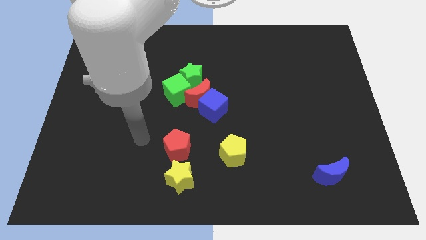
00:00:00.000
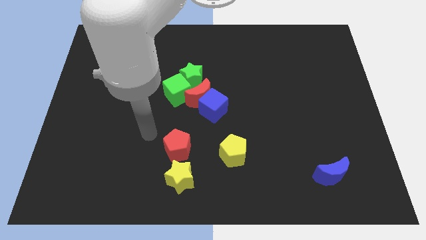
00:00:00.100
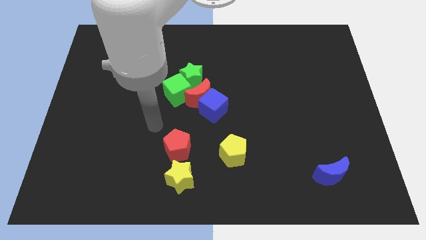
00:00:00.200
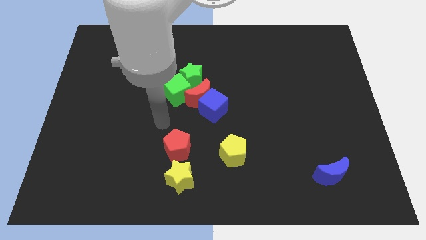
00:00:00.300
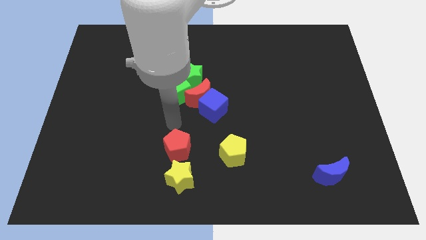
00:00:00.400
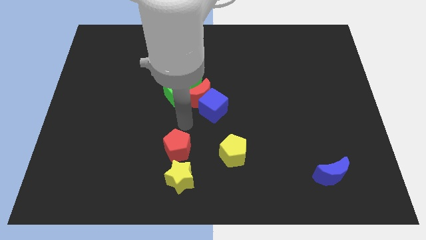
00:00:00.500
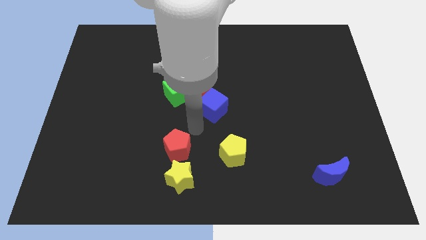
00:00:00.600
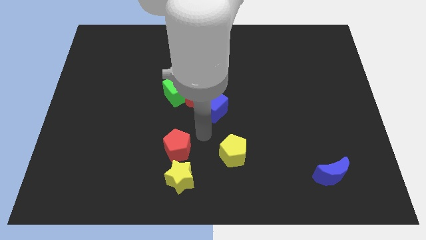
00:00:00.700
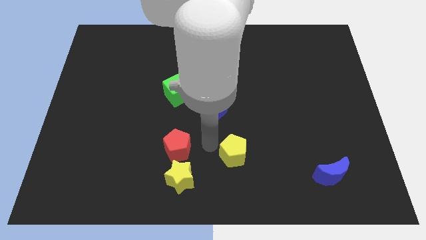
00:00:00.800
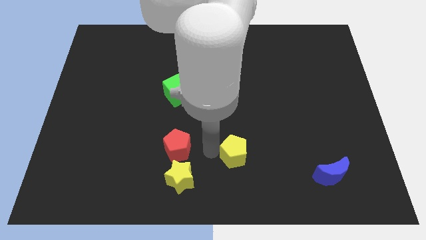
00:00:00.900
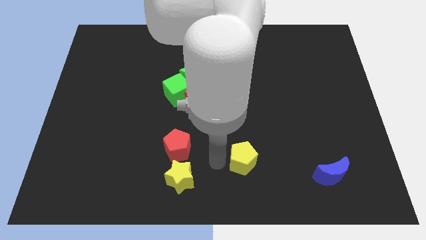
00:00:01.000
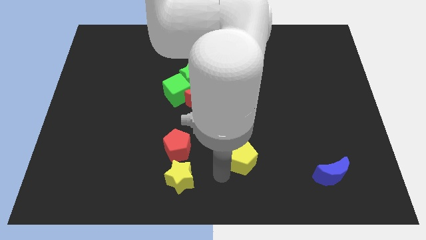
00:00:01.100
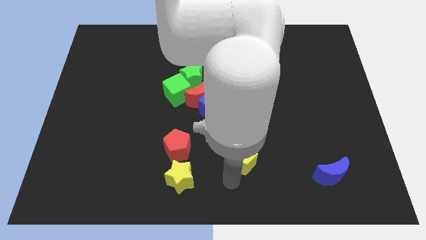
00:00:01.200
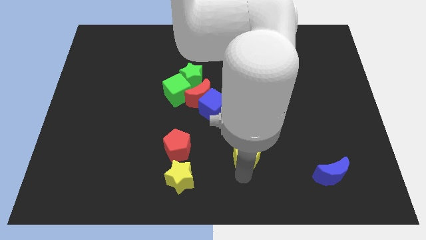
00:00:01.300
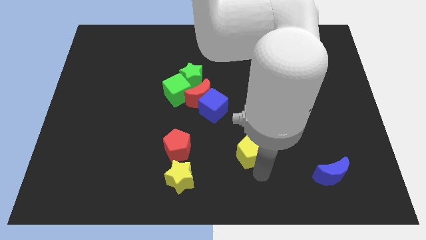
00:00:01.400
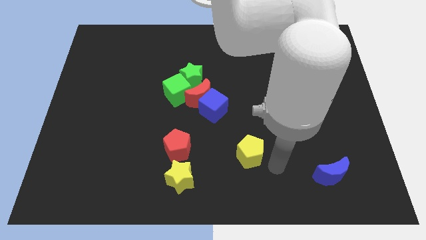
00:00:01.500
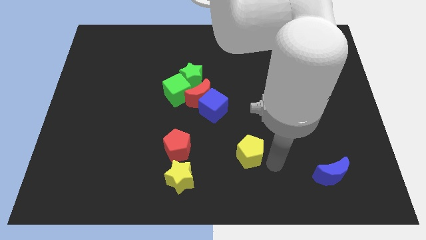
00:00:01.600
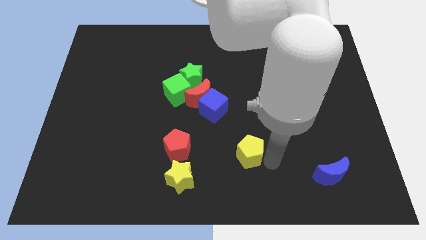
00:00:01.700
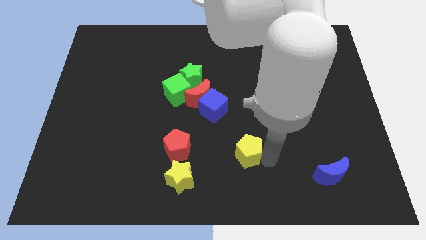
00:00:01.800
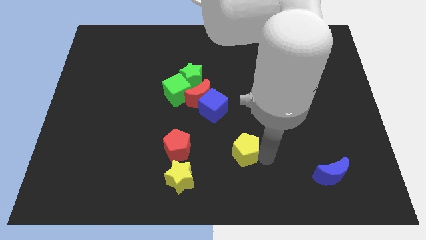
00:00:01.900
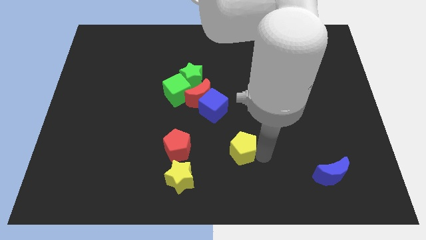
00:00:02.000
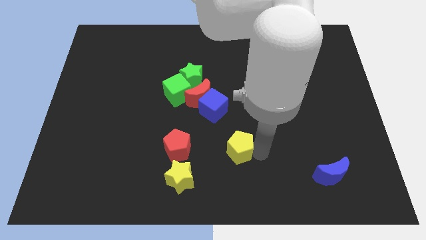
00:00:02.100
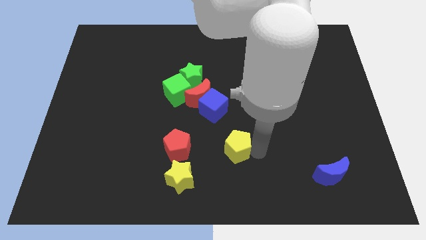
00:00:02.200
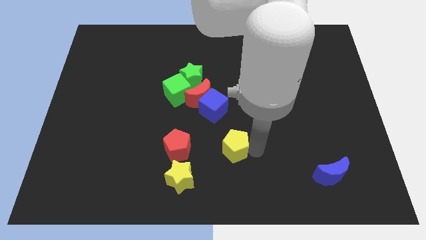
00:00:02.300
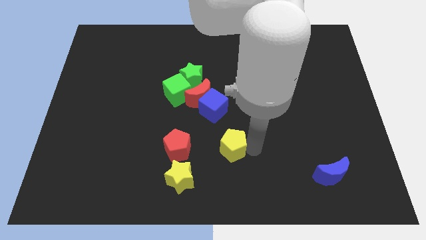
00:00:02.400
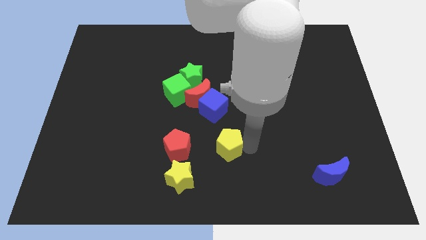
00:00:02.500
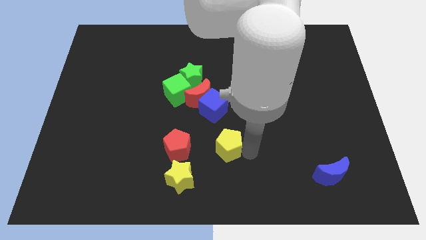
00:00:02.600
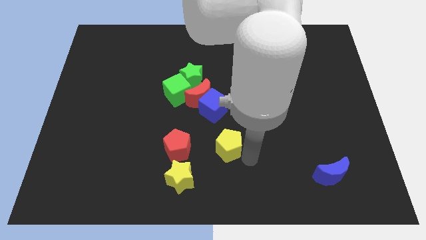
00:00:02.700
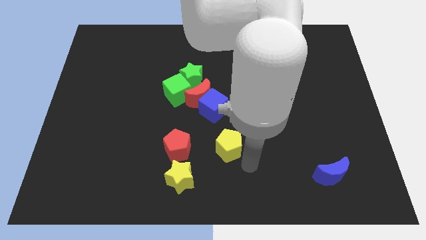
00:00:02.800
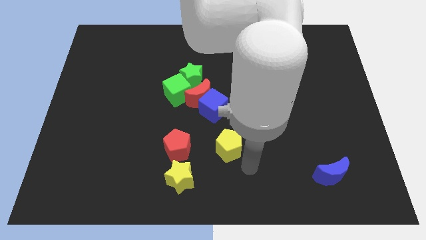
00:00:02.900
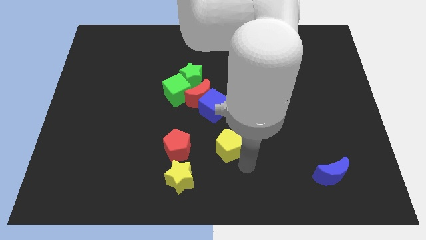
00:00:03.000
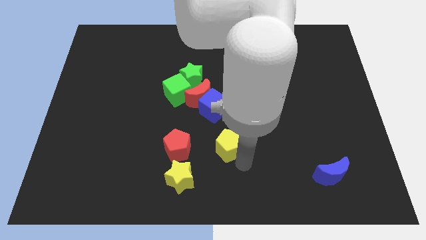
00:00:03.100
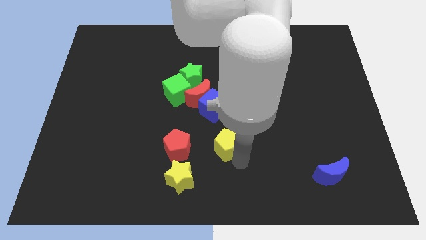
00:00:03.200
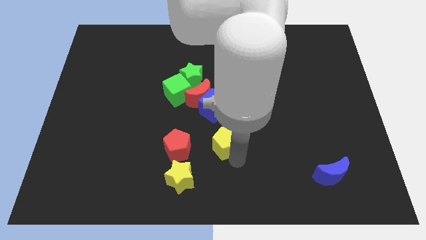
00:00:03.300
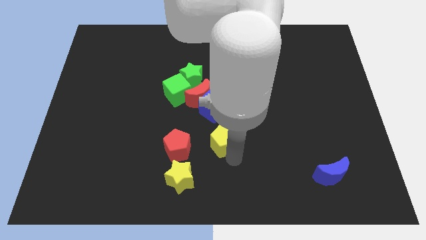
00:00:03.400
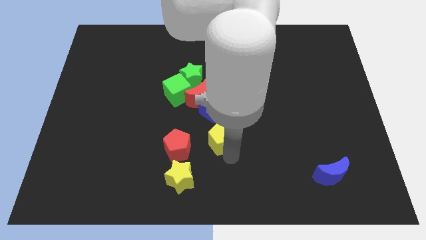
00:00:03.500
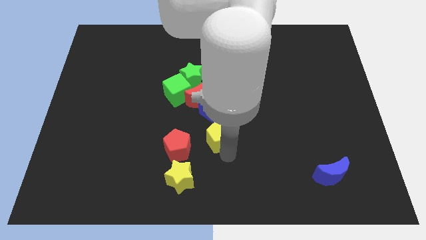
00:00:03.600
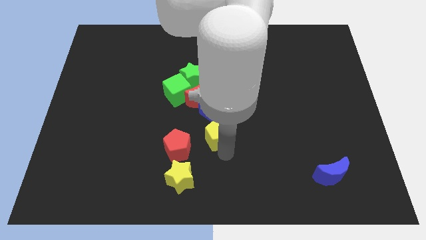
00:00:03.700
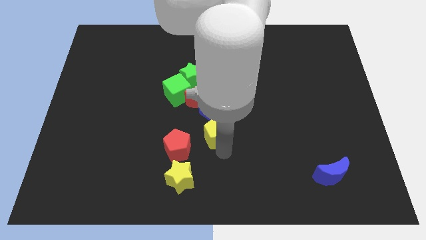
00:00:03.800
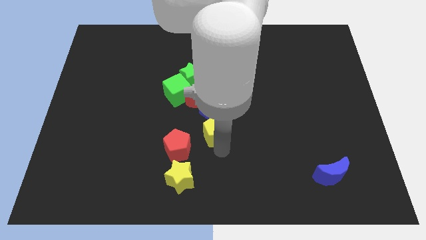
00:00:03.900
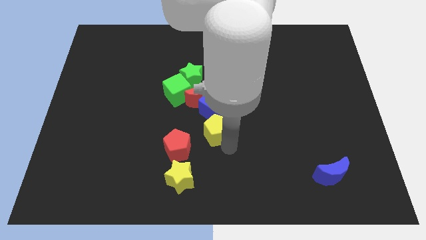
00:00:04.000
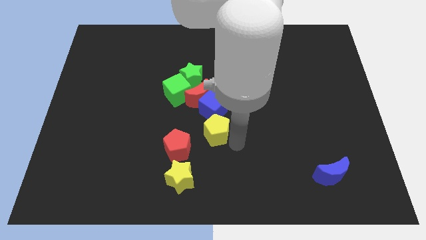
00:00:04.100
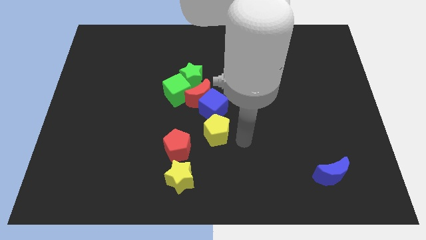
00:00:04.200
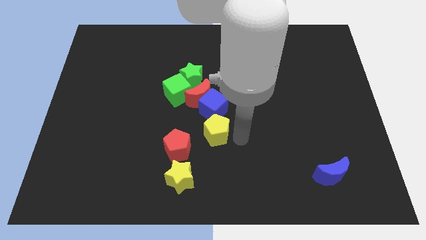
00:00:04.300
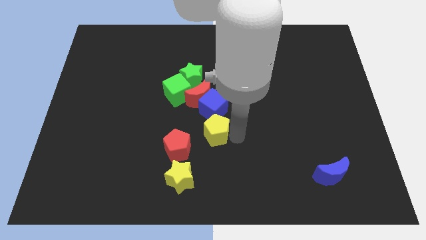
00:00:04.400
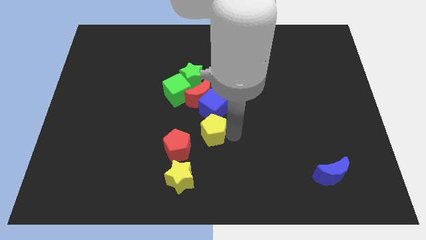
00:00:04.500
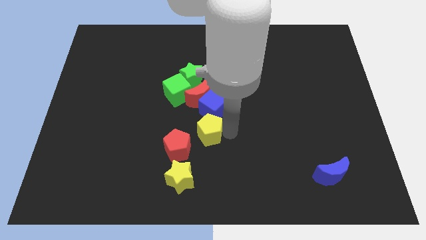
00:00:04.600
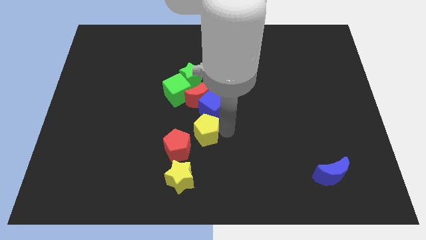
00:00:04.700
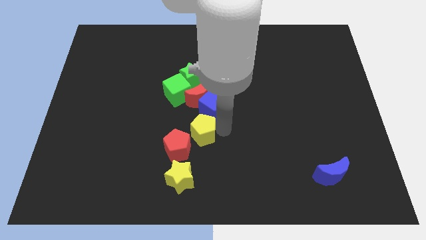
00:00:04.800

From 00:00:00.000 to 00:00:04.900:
move the yellow pentagon to the top side of the yellow star

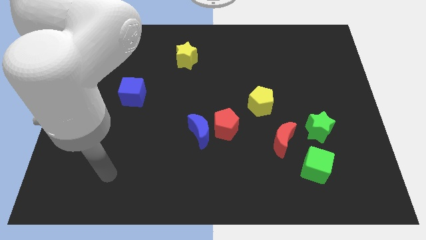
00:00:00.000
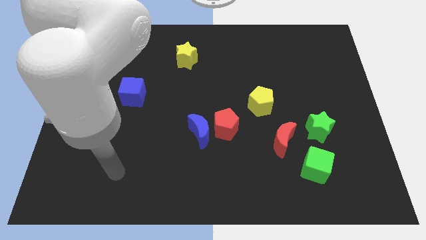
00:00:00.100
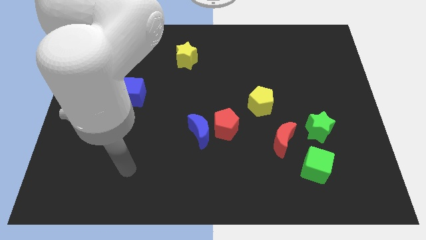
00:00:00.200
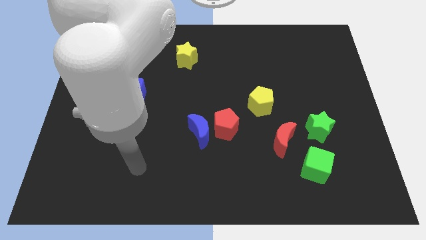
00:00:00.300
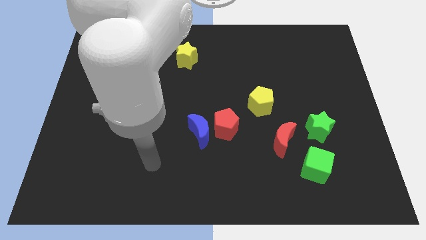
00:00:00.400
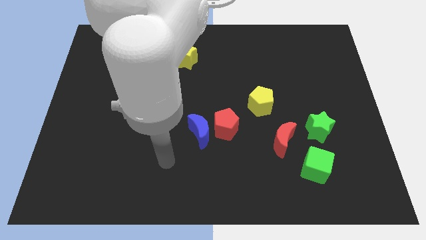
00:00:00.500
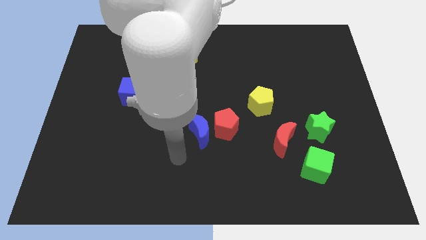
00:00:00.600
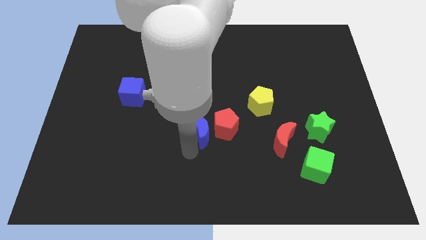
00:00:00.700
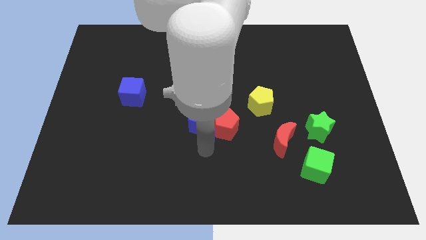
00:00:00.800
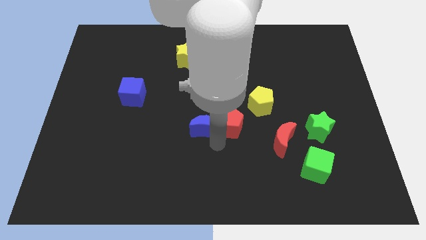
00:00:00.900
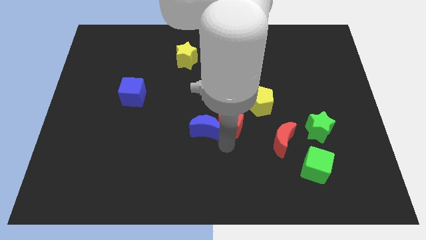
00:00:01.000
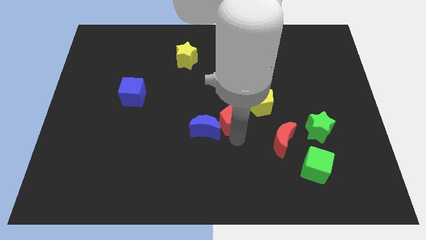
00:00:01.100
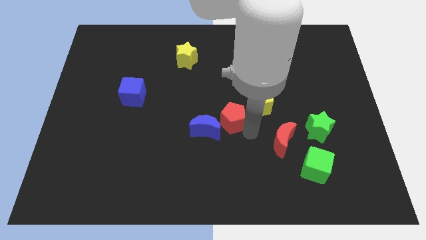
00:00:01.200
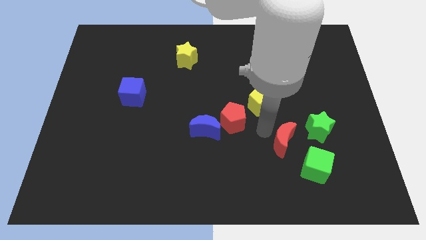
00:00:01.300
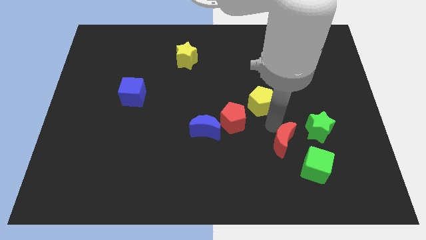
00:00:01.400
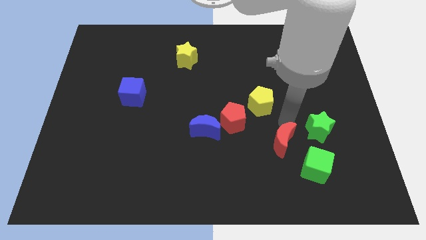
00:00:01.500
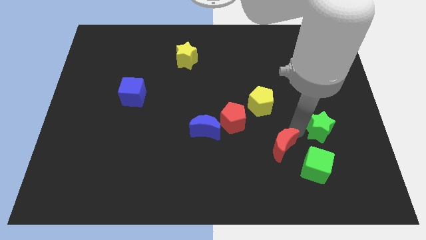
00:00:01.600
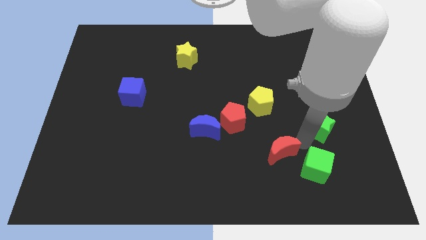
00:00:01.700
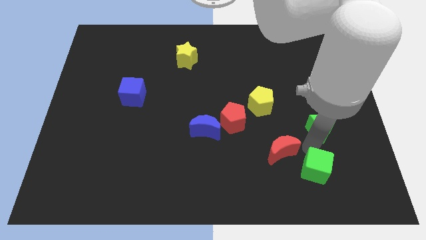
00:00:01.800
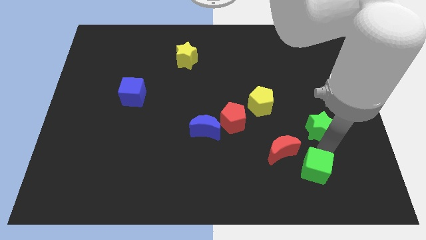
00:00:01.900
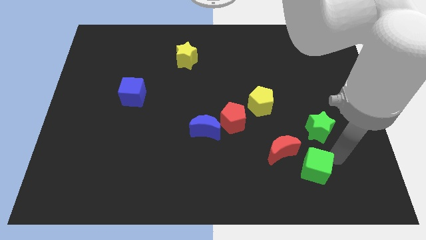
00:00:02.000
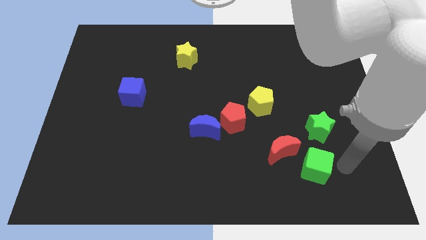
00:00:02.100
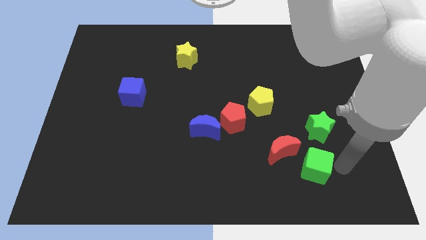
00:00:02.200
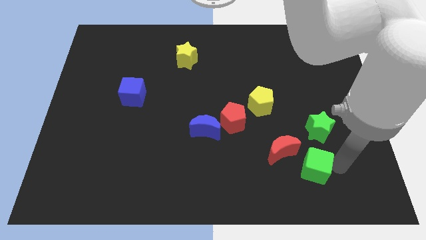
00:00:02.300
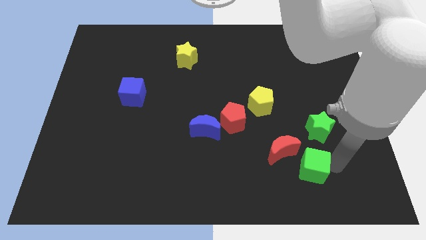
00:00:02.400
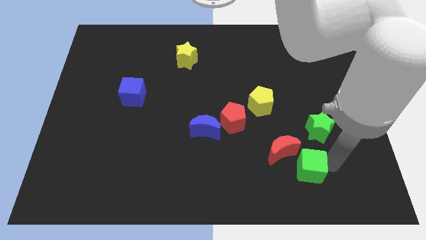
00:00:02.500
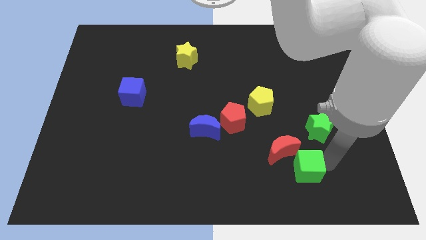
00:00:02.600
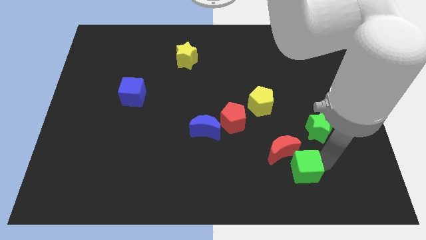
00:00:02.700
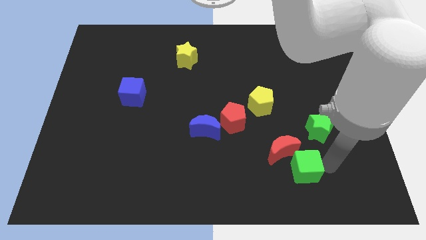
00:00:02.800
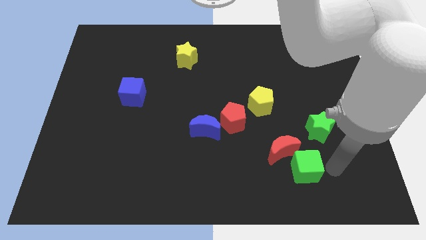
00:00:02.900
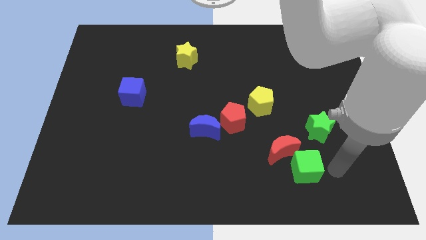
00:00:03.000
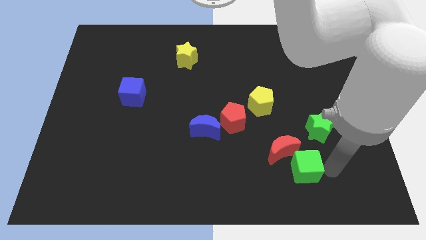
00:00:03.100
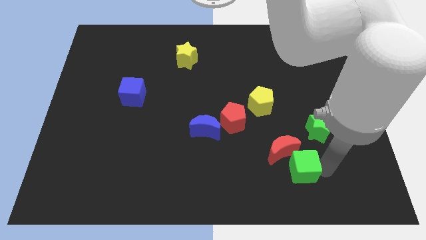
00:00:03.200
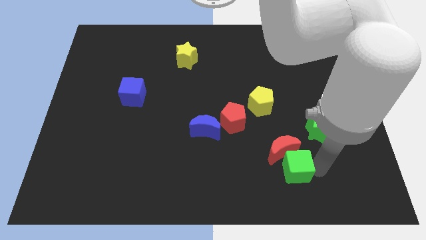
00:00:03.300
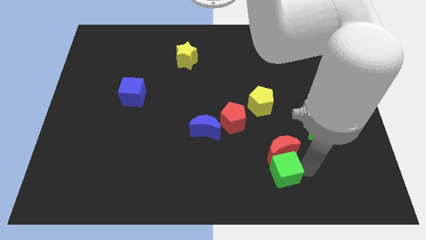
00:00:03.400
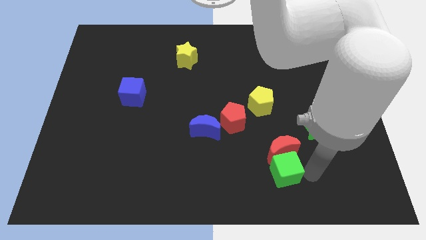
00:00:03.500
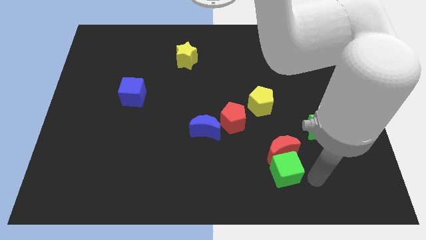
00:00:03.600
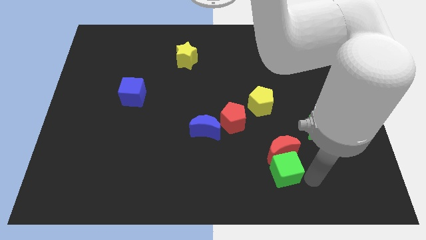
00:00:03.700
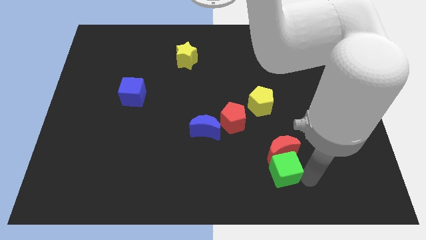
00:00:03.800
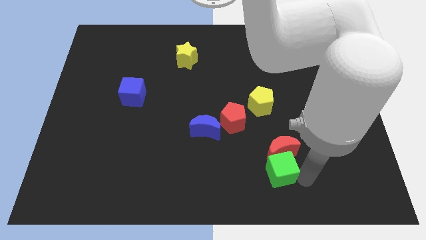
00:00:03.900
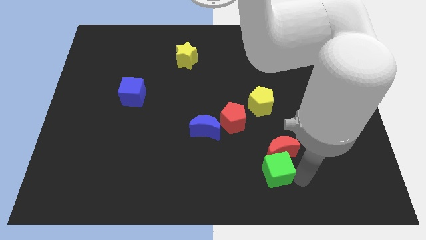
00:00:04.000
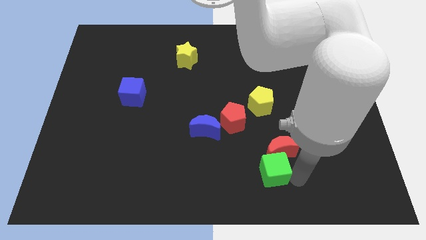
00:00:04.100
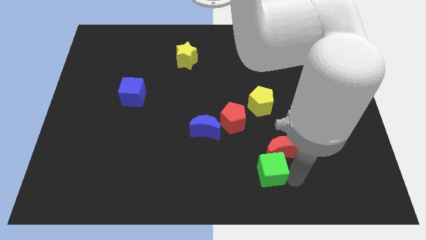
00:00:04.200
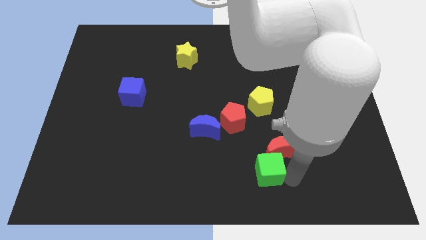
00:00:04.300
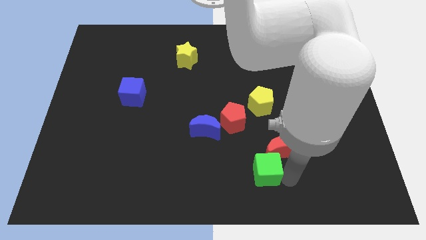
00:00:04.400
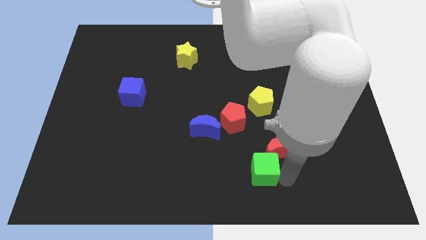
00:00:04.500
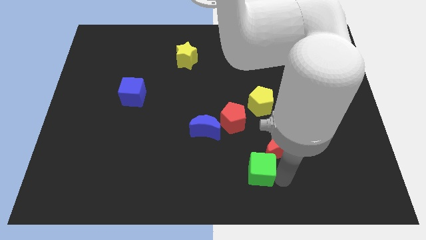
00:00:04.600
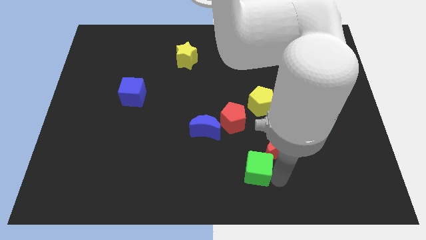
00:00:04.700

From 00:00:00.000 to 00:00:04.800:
slide the green cube to the bottom of the red pentagon
